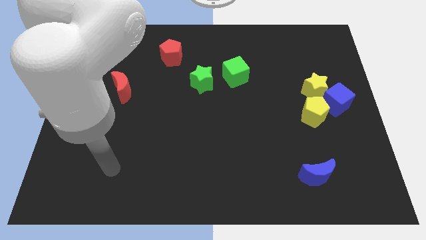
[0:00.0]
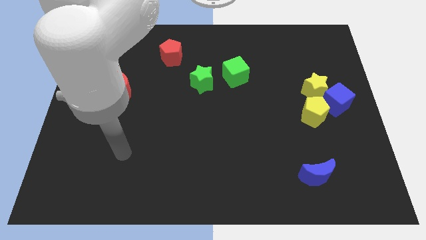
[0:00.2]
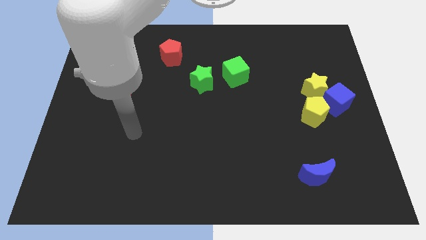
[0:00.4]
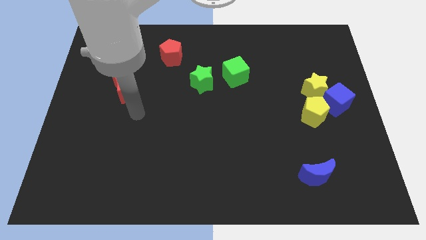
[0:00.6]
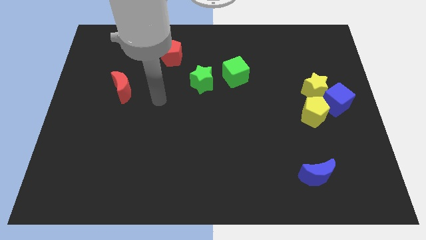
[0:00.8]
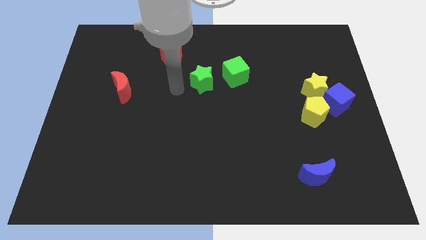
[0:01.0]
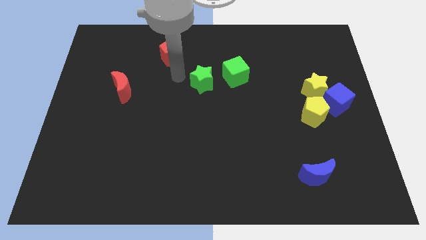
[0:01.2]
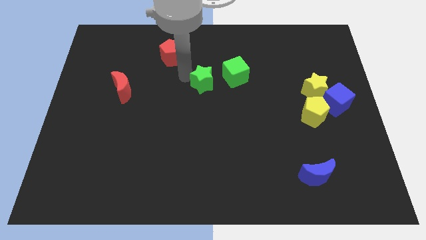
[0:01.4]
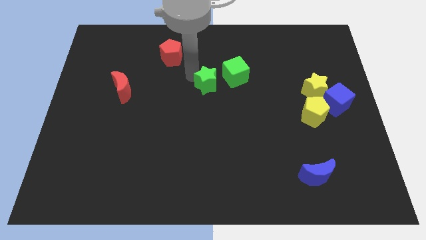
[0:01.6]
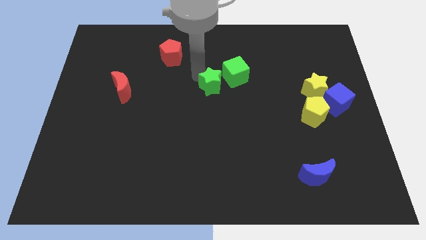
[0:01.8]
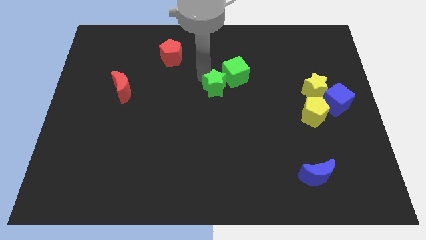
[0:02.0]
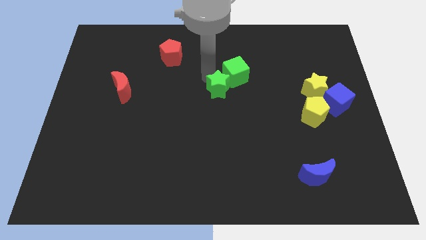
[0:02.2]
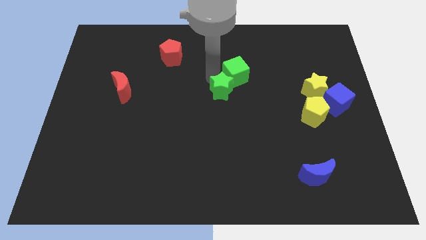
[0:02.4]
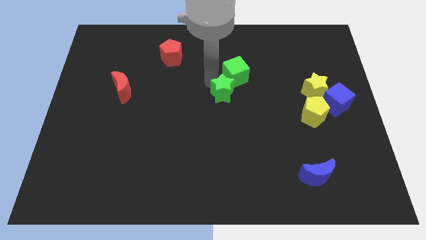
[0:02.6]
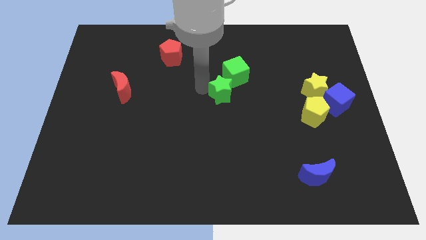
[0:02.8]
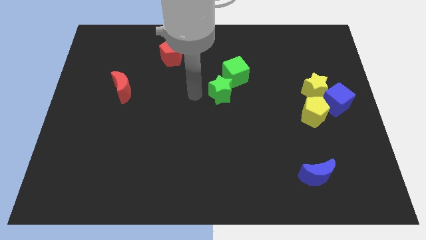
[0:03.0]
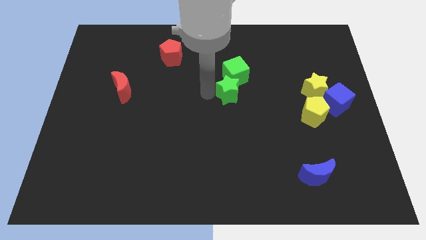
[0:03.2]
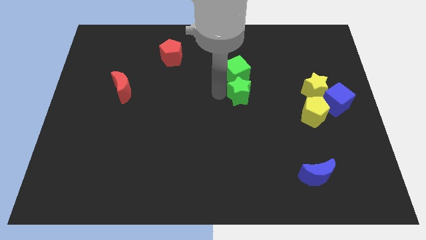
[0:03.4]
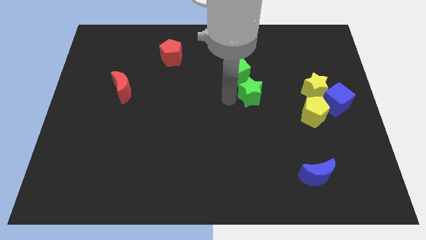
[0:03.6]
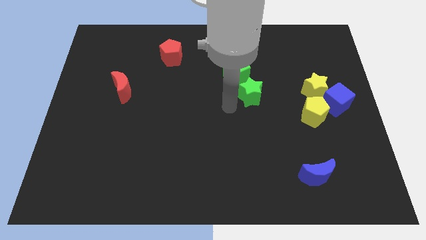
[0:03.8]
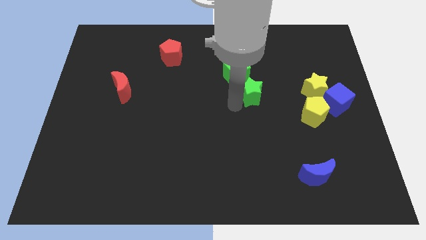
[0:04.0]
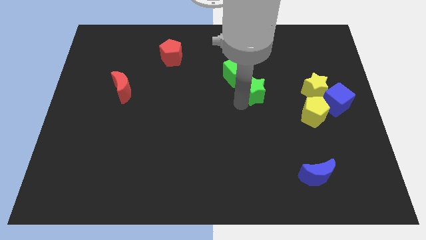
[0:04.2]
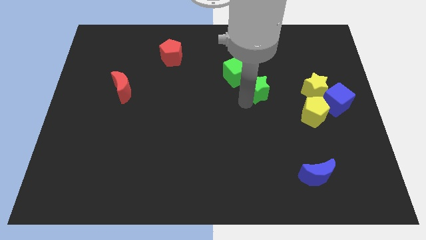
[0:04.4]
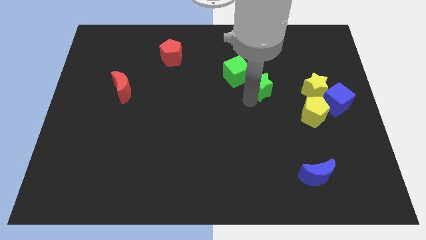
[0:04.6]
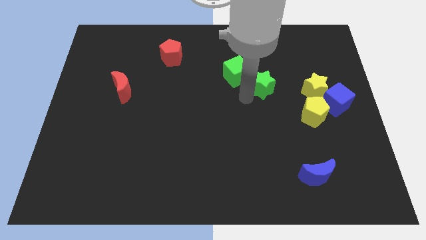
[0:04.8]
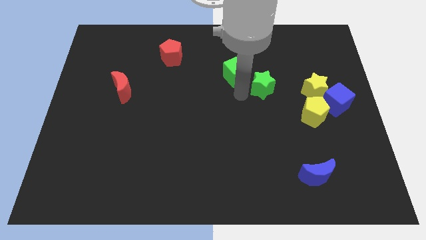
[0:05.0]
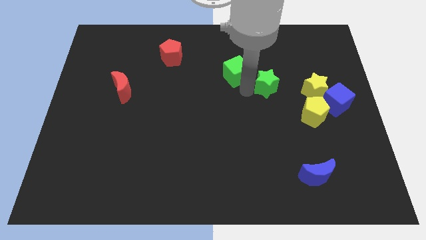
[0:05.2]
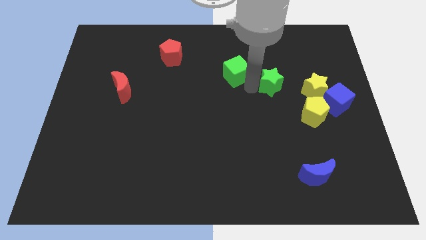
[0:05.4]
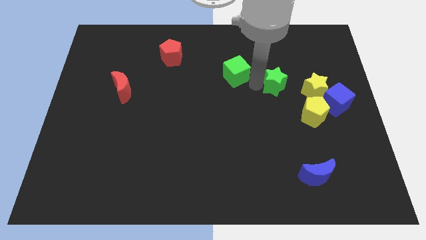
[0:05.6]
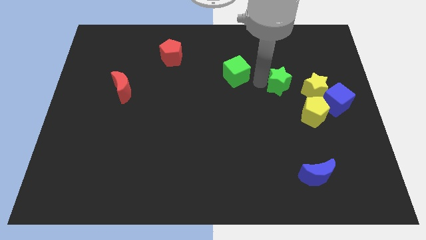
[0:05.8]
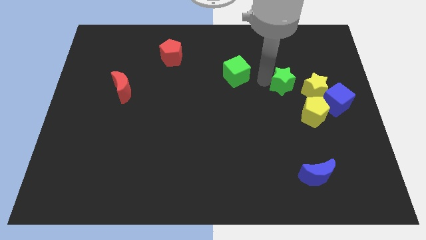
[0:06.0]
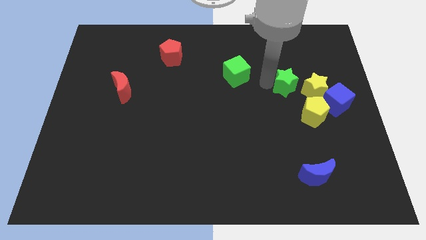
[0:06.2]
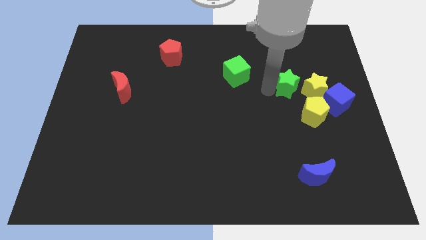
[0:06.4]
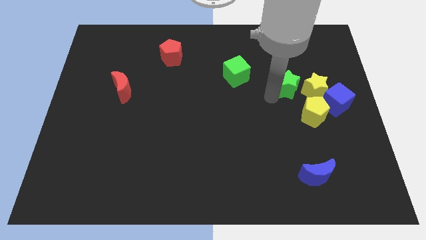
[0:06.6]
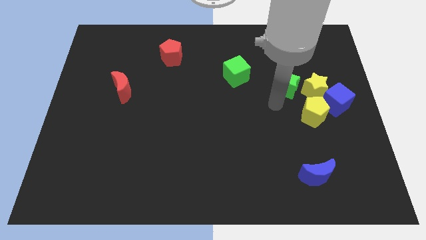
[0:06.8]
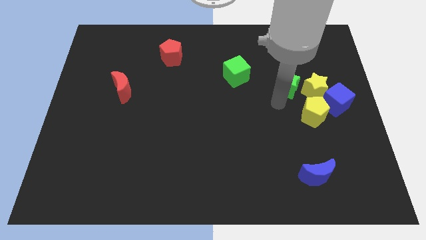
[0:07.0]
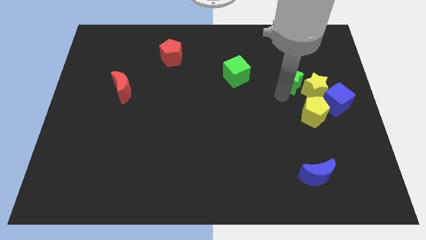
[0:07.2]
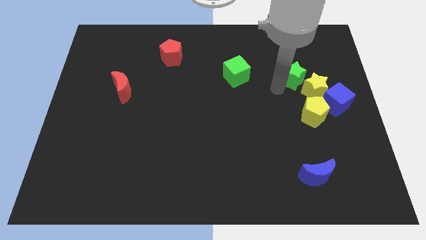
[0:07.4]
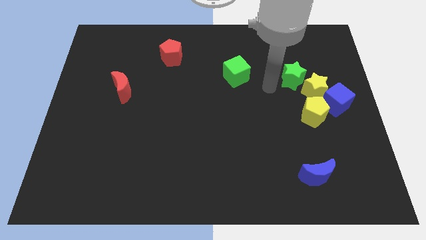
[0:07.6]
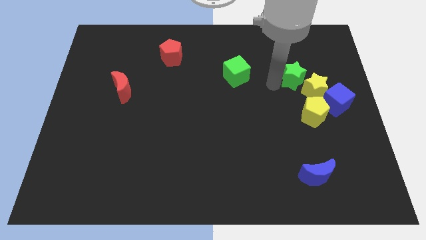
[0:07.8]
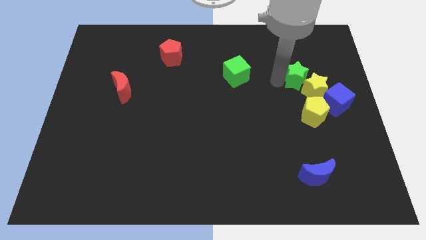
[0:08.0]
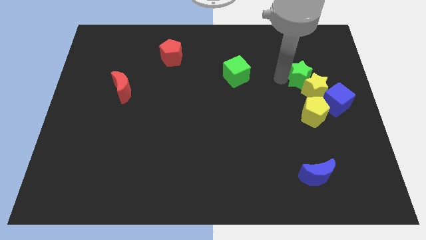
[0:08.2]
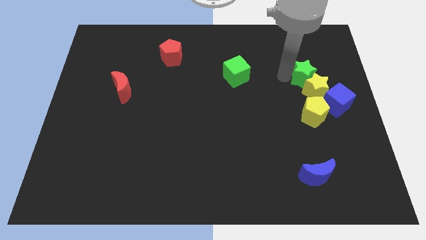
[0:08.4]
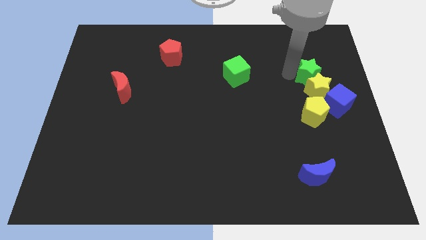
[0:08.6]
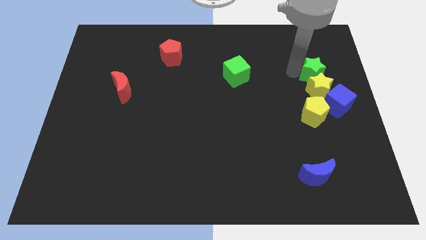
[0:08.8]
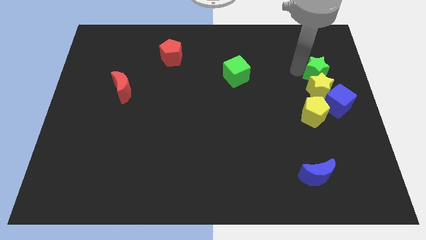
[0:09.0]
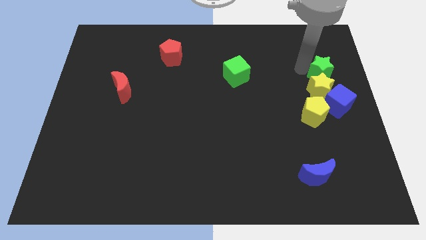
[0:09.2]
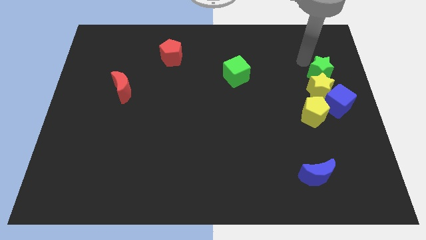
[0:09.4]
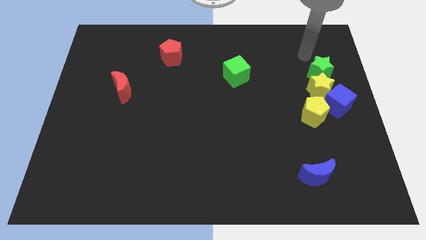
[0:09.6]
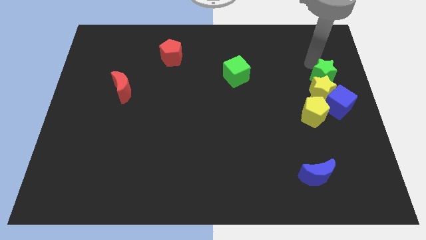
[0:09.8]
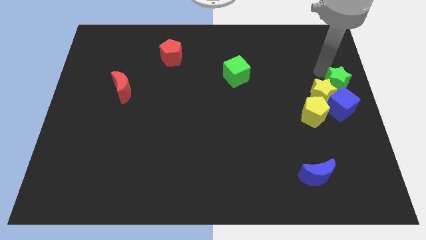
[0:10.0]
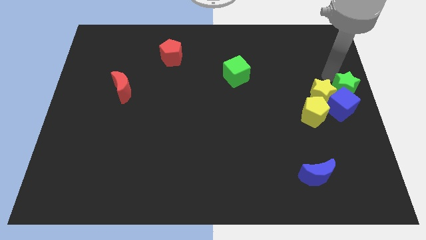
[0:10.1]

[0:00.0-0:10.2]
move the green star close to the blue cube

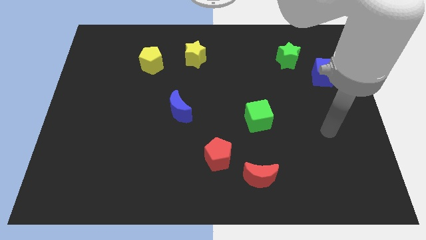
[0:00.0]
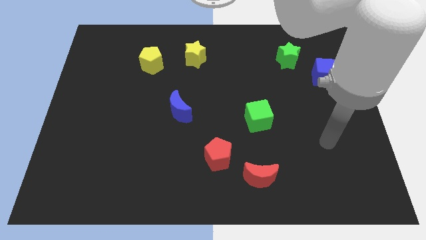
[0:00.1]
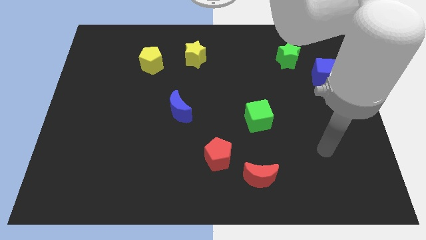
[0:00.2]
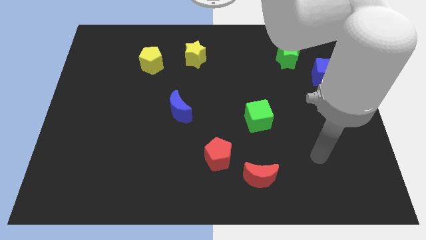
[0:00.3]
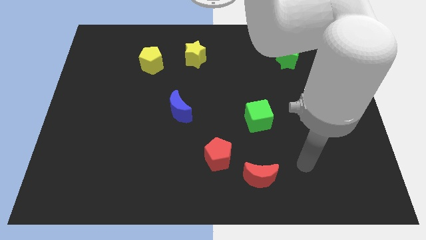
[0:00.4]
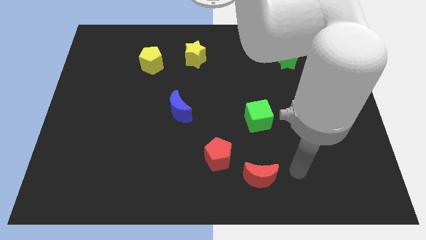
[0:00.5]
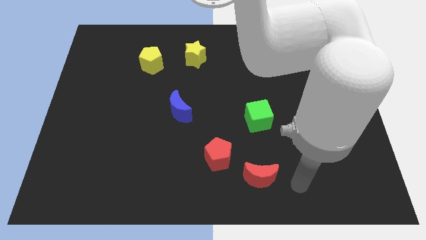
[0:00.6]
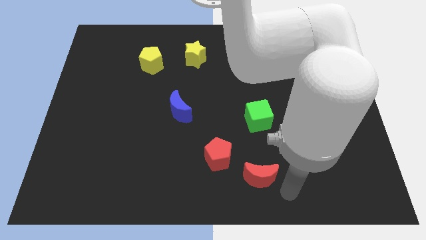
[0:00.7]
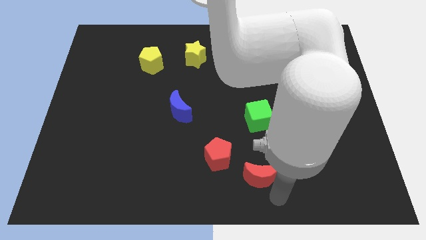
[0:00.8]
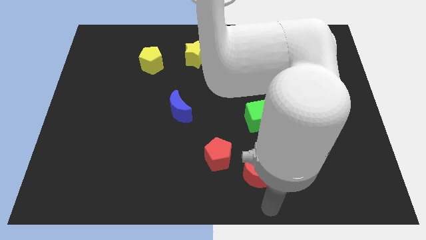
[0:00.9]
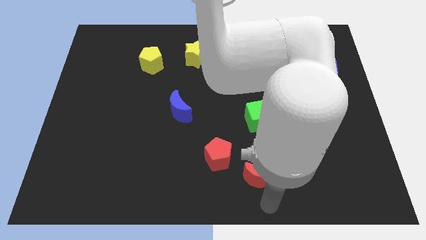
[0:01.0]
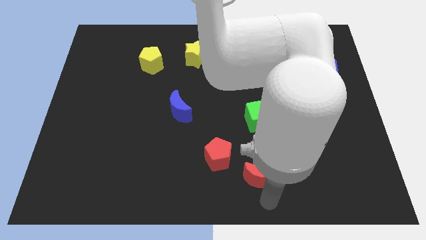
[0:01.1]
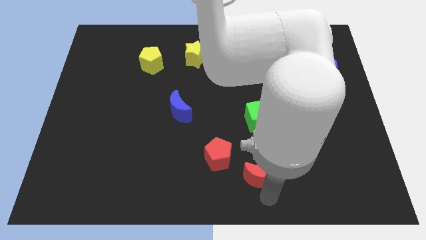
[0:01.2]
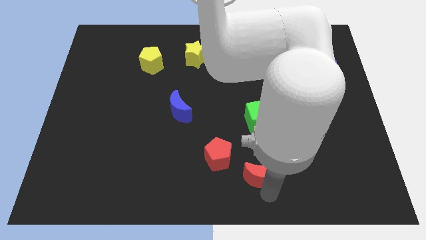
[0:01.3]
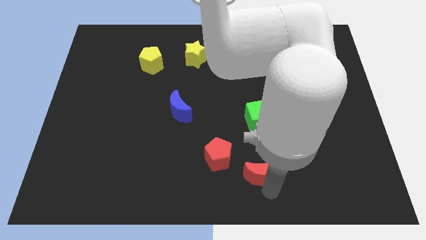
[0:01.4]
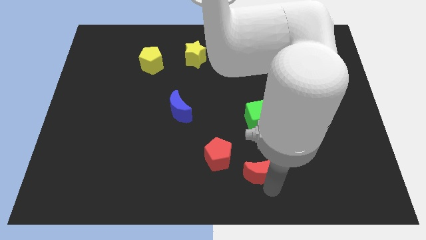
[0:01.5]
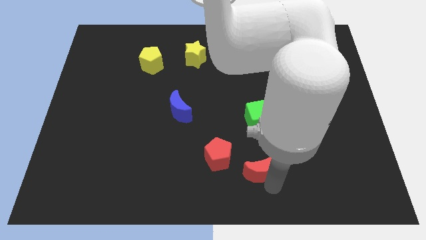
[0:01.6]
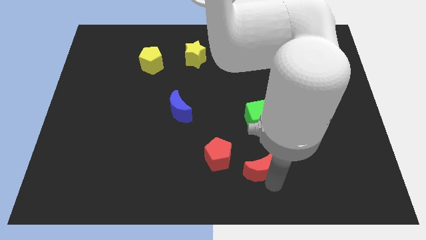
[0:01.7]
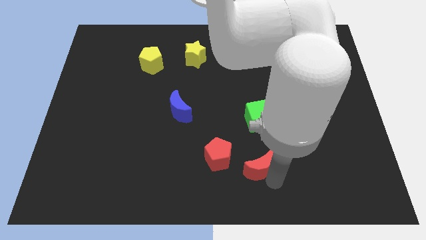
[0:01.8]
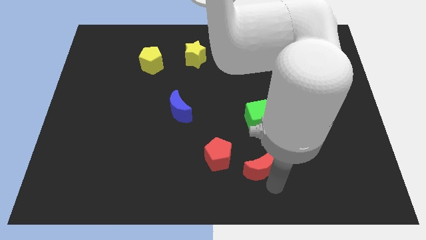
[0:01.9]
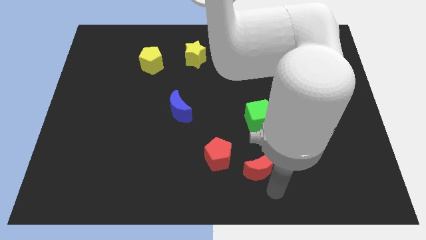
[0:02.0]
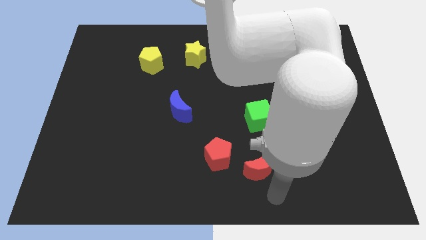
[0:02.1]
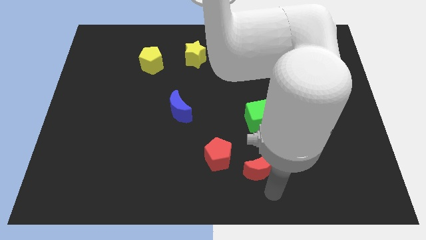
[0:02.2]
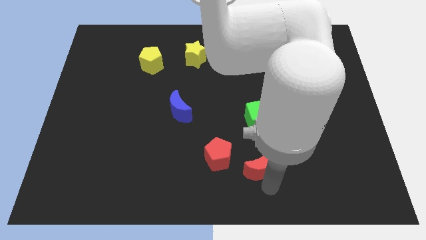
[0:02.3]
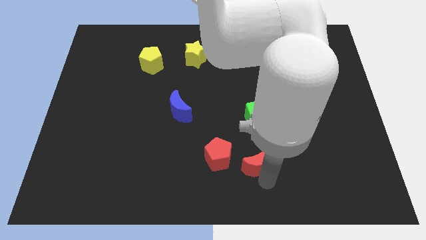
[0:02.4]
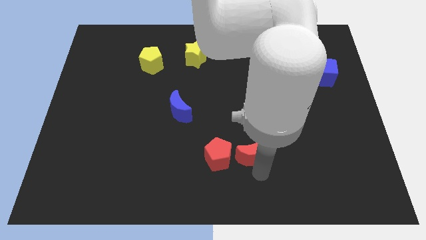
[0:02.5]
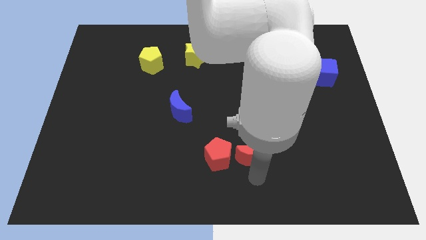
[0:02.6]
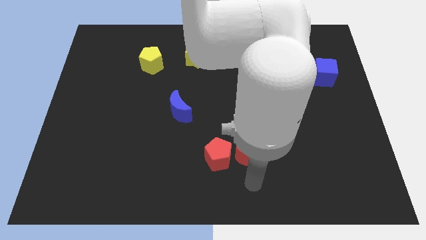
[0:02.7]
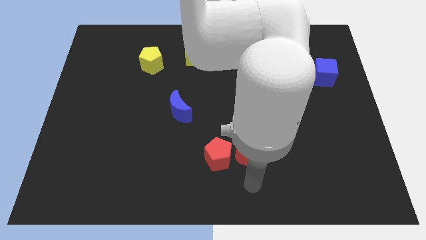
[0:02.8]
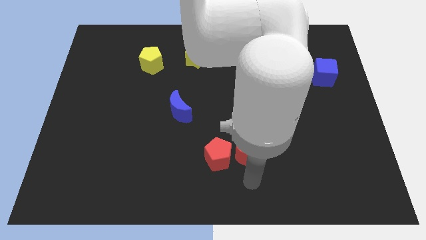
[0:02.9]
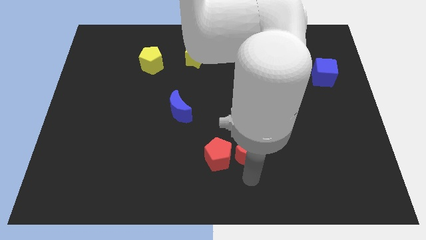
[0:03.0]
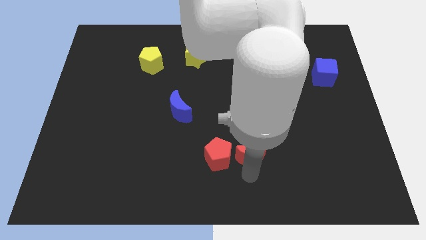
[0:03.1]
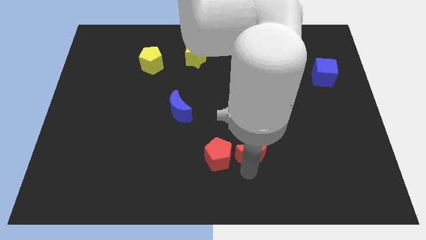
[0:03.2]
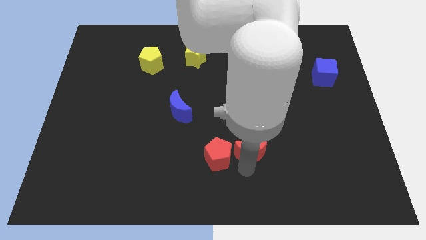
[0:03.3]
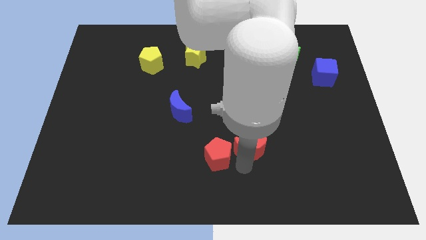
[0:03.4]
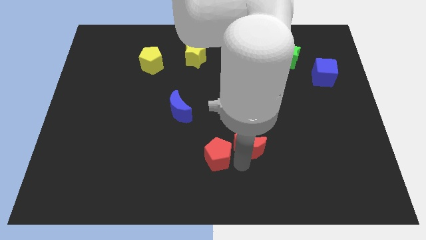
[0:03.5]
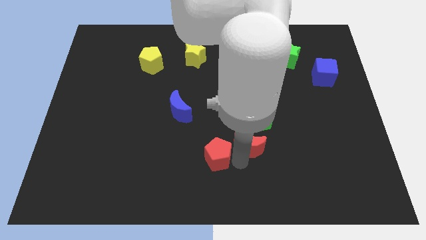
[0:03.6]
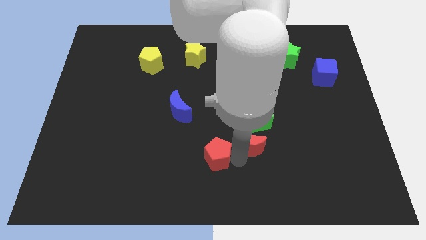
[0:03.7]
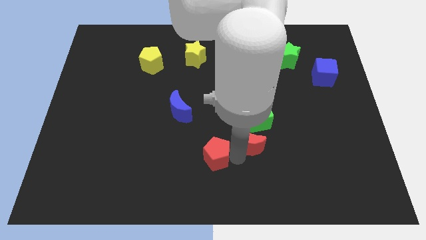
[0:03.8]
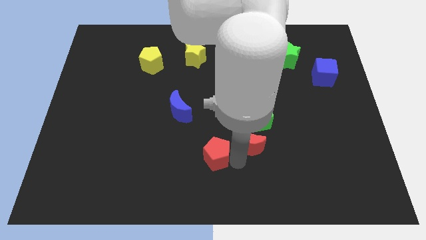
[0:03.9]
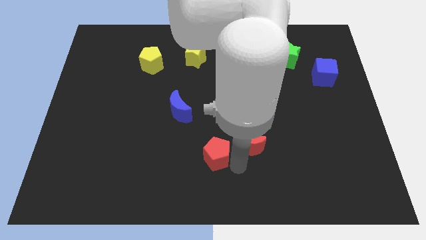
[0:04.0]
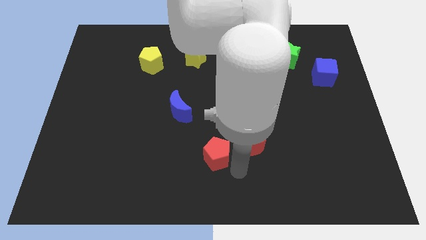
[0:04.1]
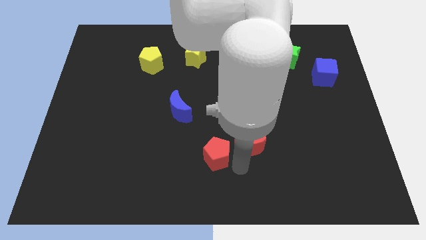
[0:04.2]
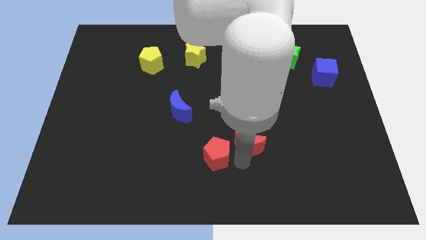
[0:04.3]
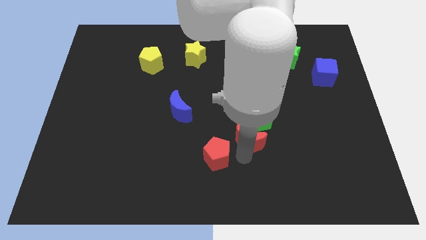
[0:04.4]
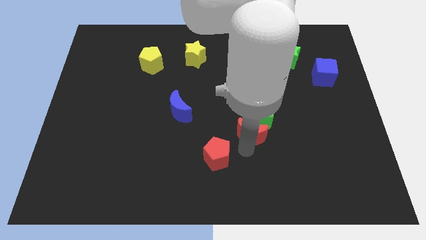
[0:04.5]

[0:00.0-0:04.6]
put the red moon close to the green cube
